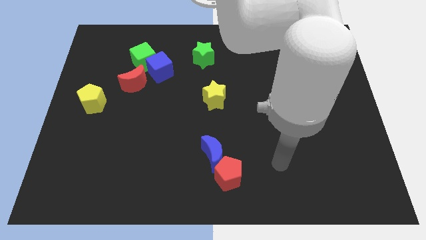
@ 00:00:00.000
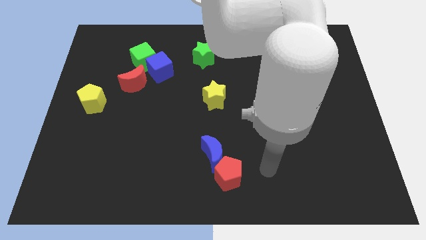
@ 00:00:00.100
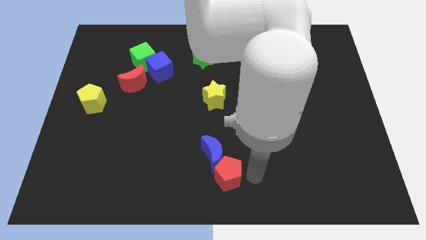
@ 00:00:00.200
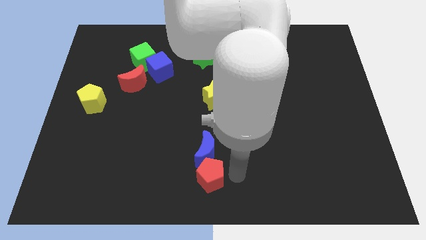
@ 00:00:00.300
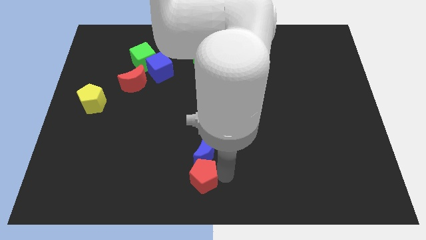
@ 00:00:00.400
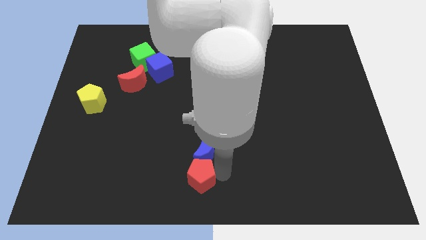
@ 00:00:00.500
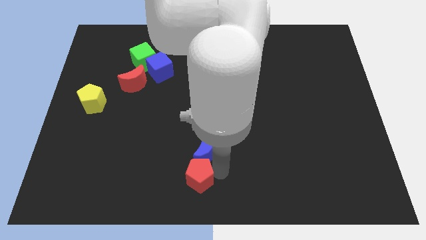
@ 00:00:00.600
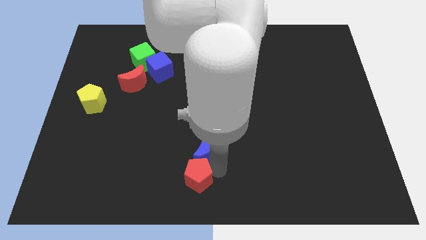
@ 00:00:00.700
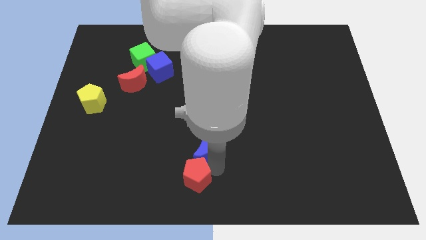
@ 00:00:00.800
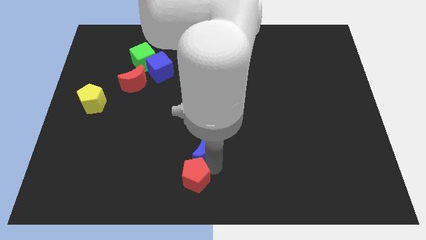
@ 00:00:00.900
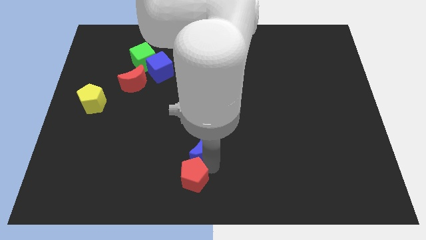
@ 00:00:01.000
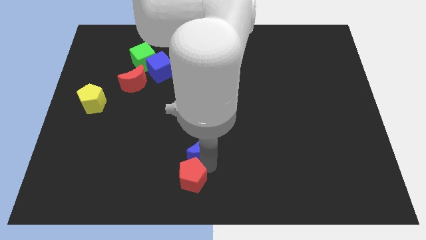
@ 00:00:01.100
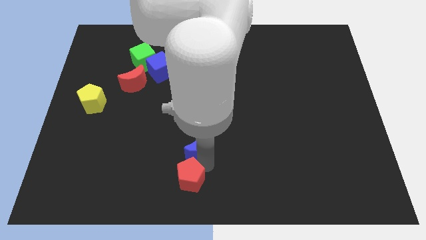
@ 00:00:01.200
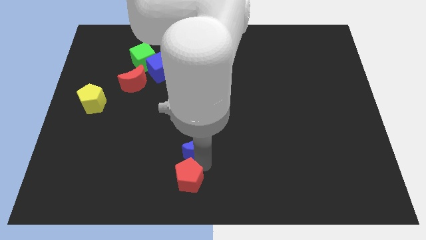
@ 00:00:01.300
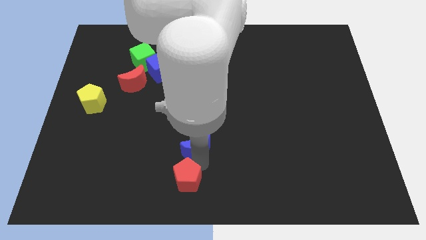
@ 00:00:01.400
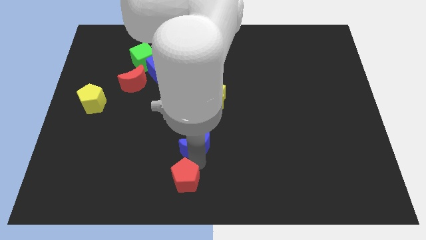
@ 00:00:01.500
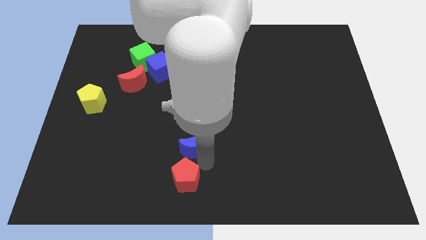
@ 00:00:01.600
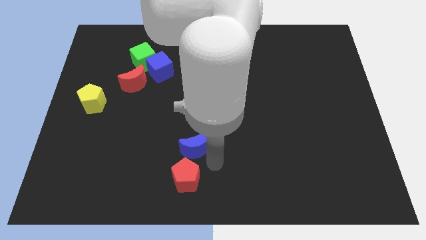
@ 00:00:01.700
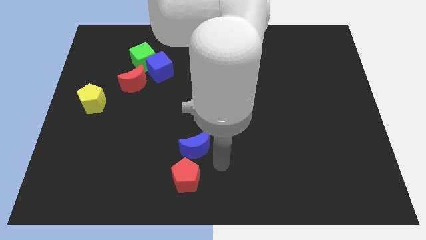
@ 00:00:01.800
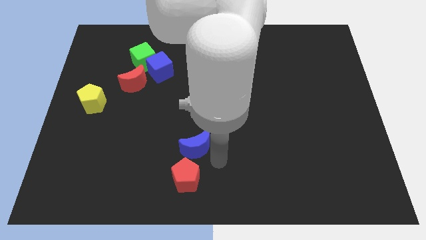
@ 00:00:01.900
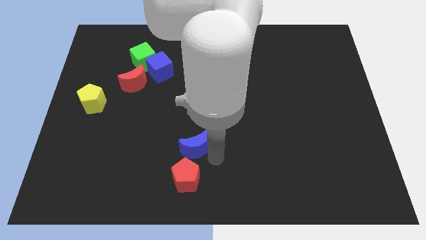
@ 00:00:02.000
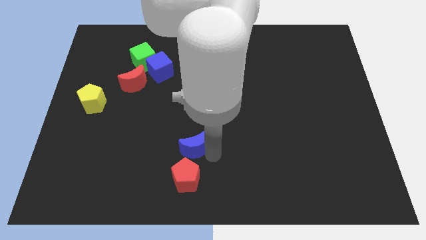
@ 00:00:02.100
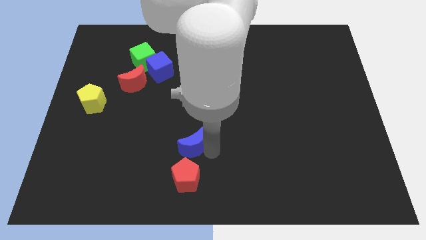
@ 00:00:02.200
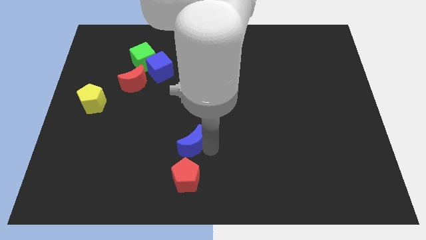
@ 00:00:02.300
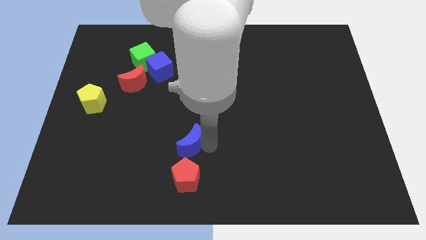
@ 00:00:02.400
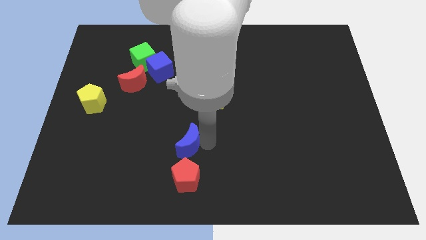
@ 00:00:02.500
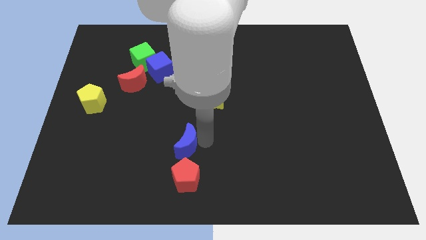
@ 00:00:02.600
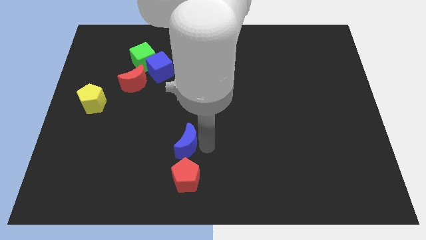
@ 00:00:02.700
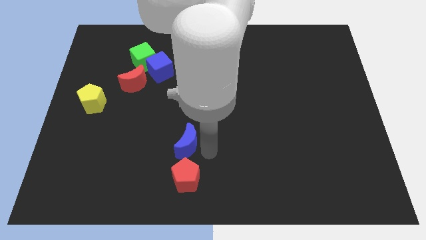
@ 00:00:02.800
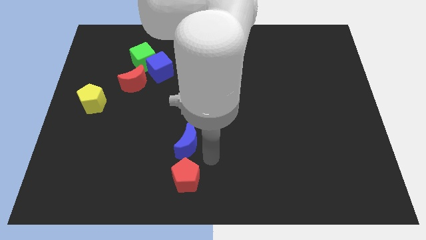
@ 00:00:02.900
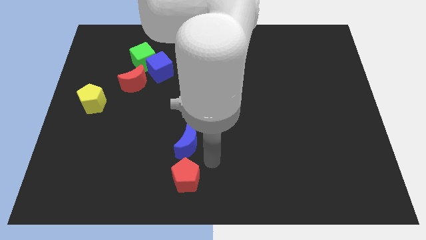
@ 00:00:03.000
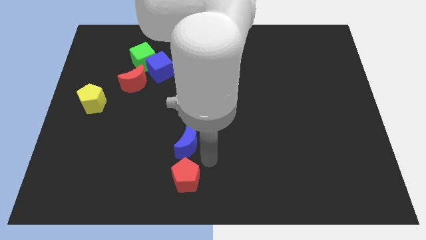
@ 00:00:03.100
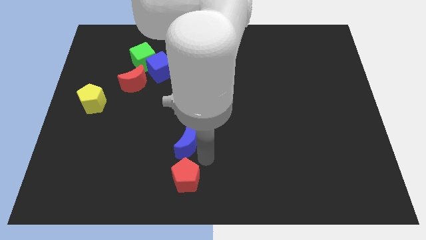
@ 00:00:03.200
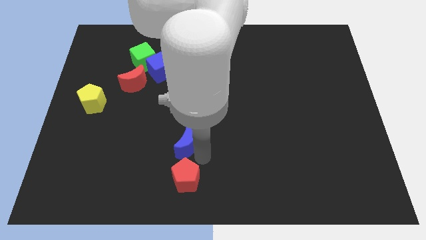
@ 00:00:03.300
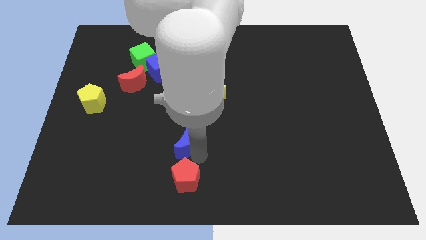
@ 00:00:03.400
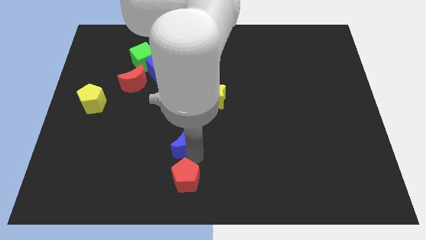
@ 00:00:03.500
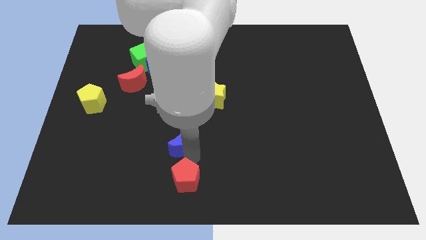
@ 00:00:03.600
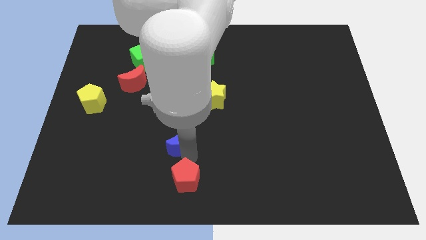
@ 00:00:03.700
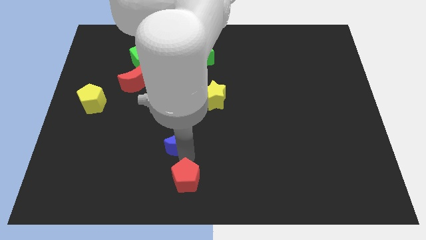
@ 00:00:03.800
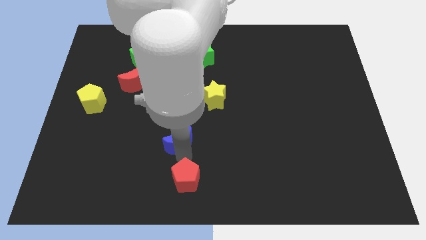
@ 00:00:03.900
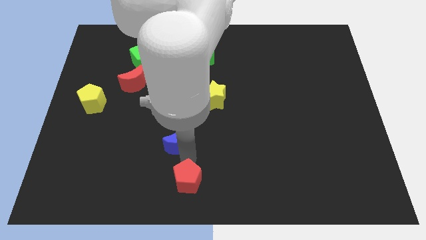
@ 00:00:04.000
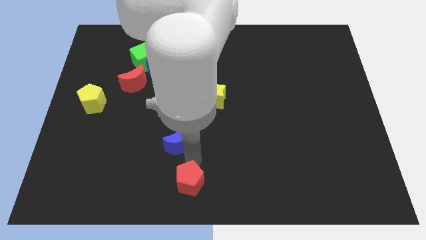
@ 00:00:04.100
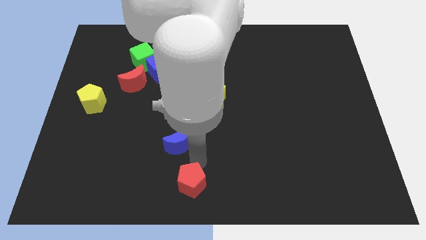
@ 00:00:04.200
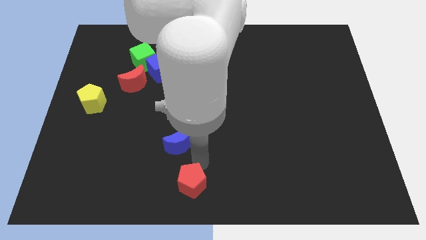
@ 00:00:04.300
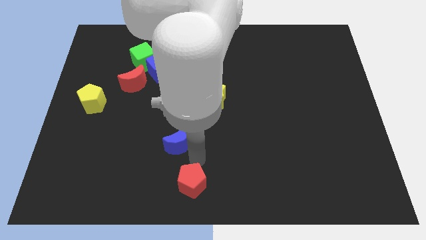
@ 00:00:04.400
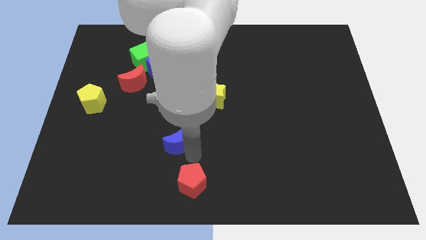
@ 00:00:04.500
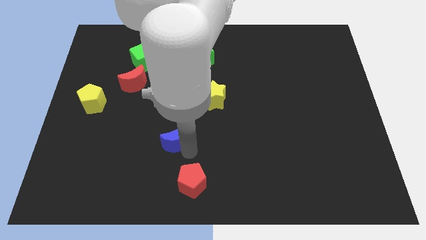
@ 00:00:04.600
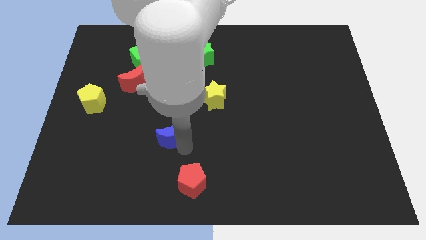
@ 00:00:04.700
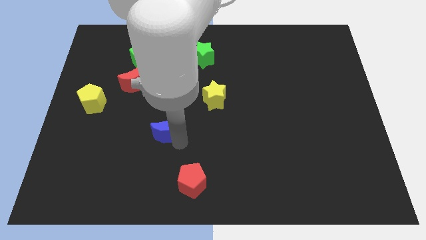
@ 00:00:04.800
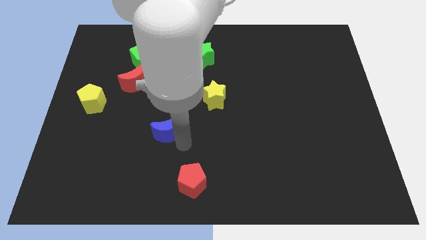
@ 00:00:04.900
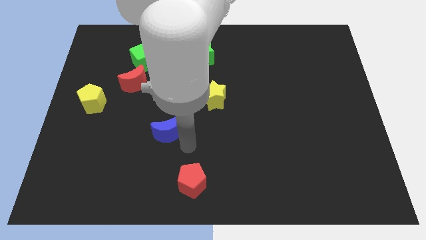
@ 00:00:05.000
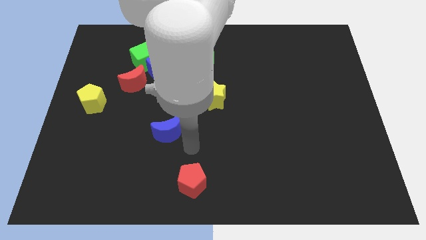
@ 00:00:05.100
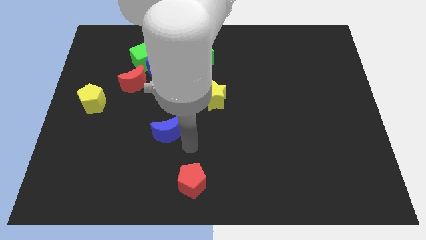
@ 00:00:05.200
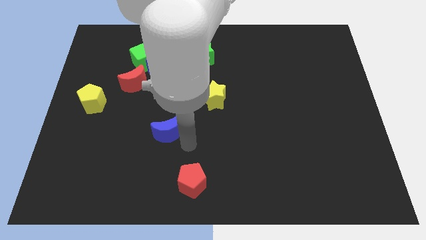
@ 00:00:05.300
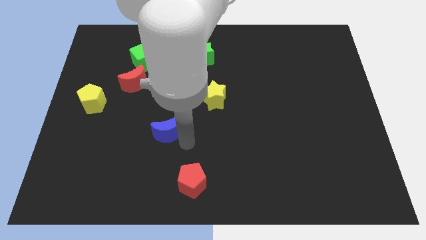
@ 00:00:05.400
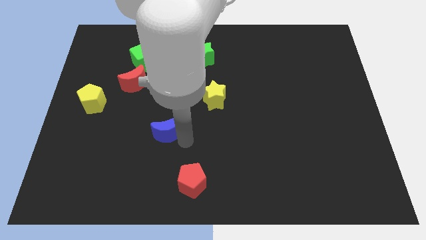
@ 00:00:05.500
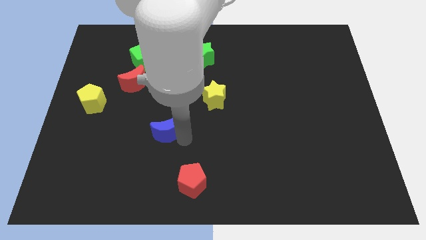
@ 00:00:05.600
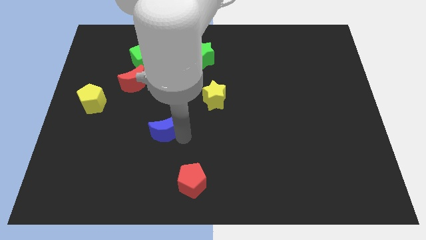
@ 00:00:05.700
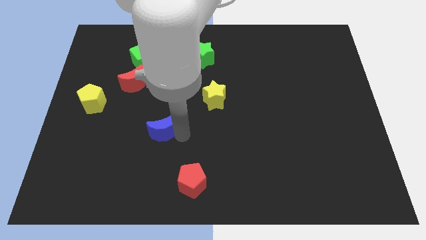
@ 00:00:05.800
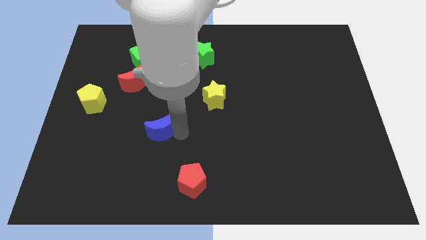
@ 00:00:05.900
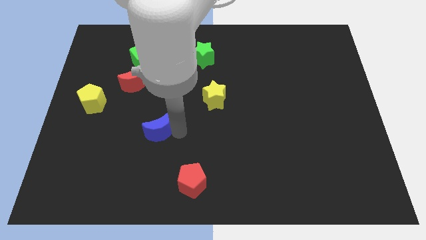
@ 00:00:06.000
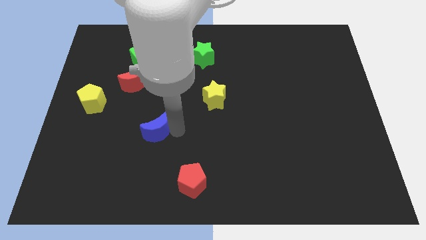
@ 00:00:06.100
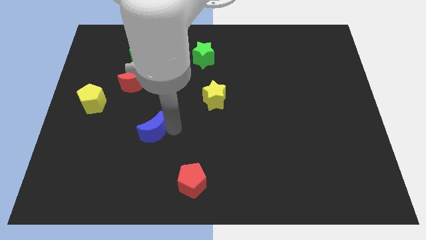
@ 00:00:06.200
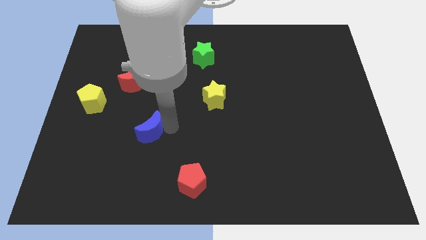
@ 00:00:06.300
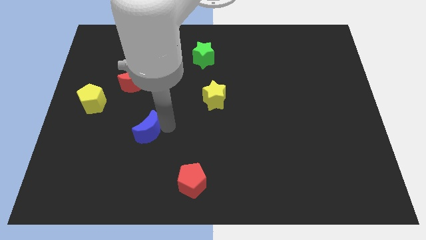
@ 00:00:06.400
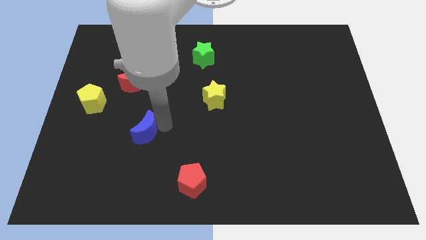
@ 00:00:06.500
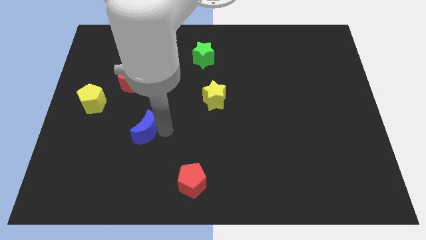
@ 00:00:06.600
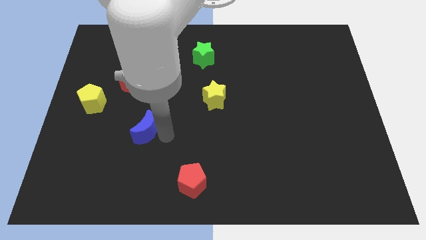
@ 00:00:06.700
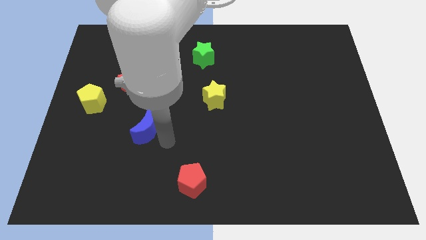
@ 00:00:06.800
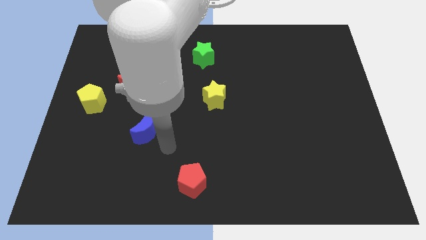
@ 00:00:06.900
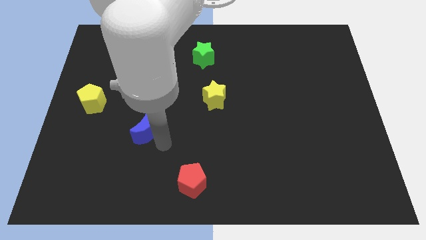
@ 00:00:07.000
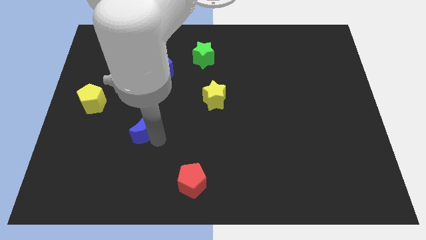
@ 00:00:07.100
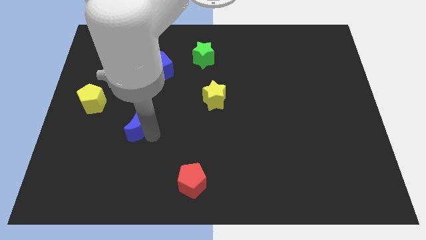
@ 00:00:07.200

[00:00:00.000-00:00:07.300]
push the blue moon to the bottom of the red moon

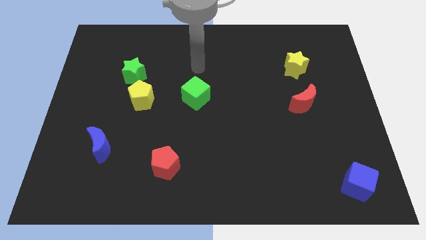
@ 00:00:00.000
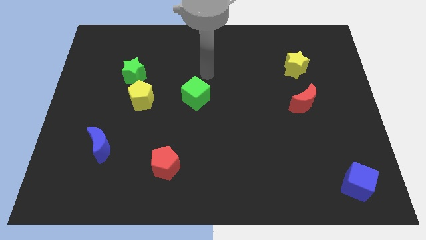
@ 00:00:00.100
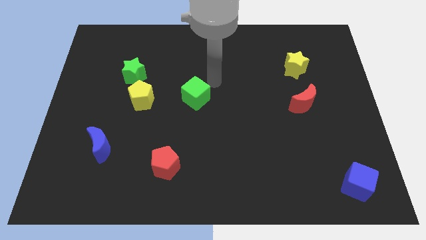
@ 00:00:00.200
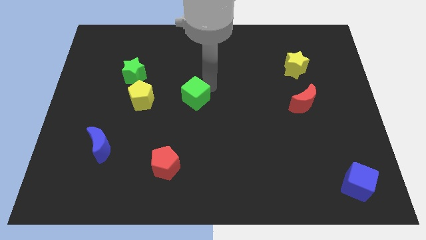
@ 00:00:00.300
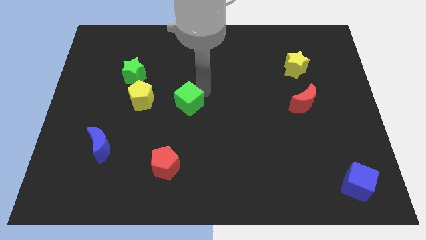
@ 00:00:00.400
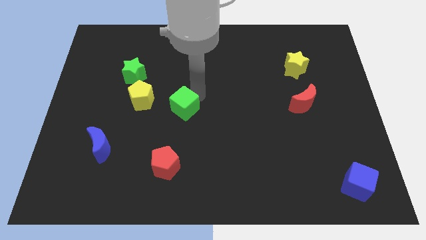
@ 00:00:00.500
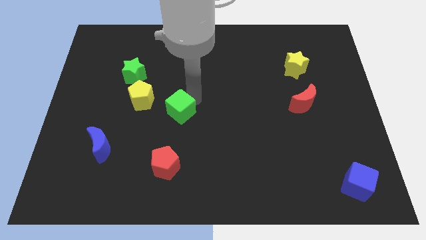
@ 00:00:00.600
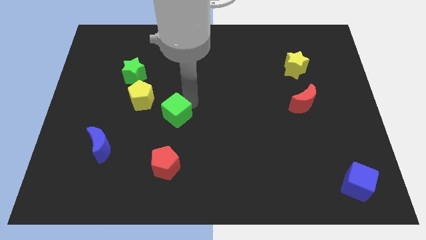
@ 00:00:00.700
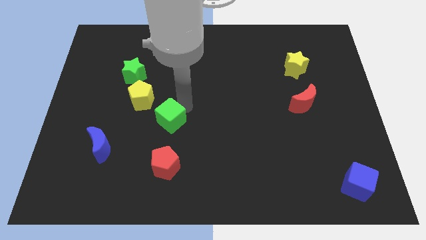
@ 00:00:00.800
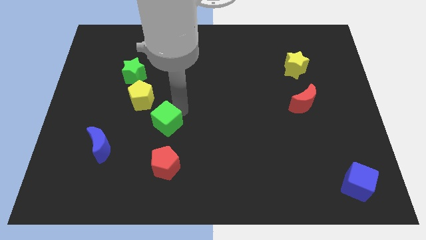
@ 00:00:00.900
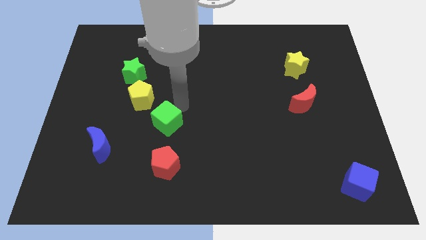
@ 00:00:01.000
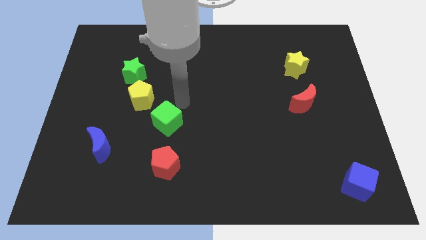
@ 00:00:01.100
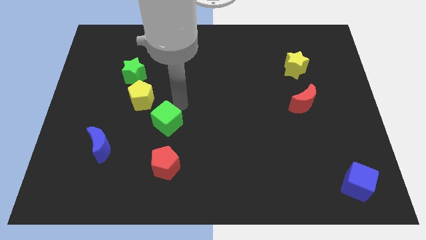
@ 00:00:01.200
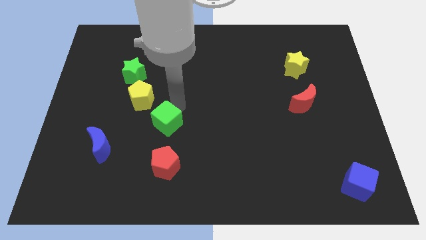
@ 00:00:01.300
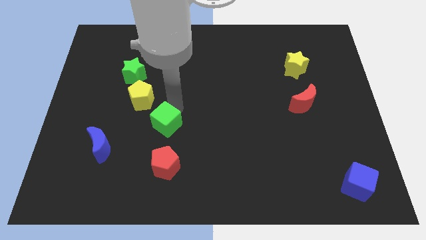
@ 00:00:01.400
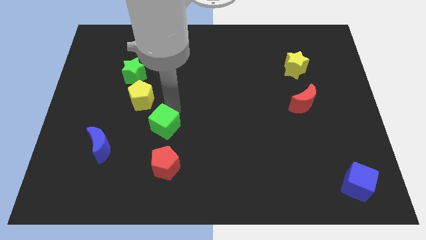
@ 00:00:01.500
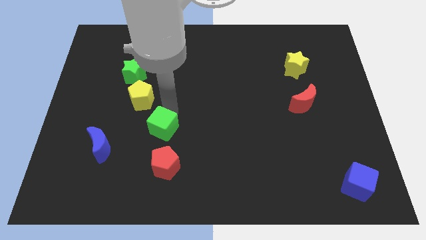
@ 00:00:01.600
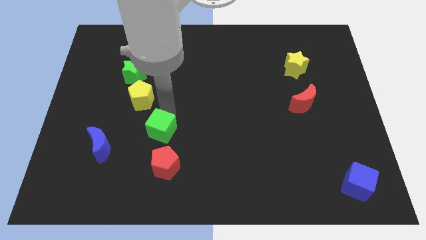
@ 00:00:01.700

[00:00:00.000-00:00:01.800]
move the green cube right of the blue moon
